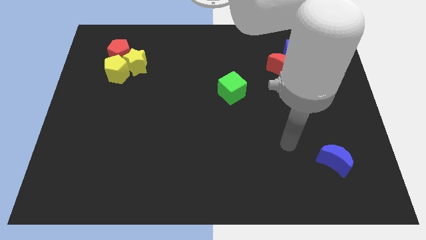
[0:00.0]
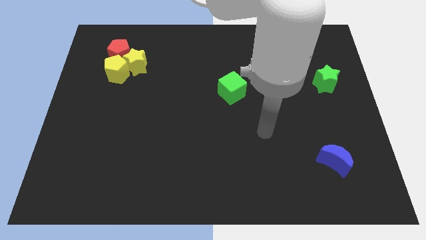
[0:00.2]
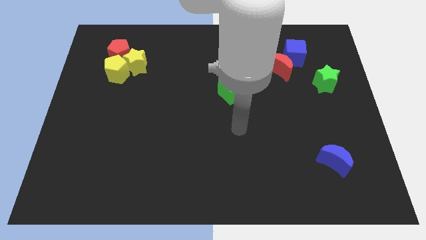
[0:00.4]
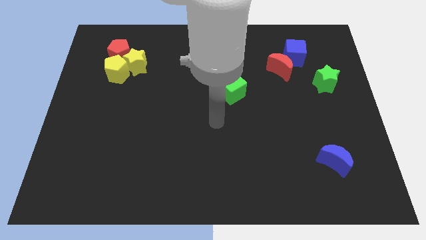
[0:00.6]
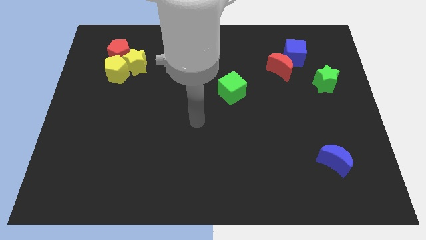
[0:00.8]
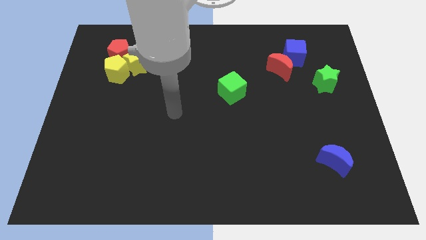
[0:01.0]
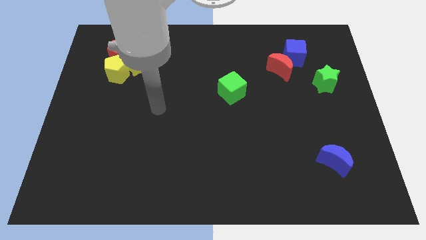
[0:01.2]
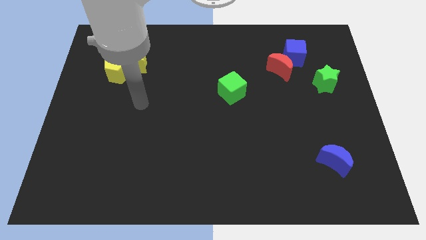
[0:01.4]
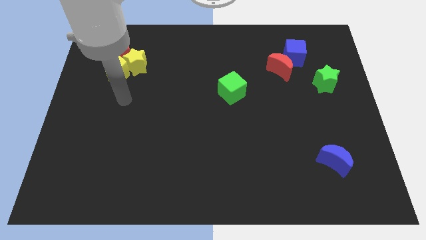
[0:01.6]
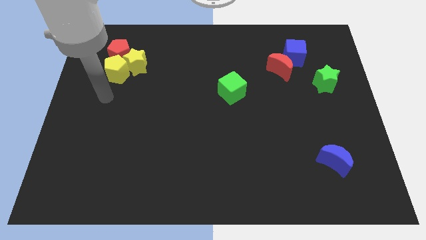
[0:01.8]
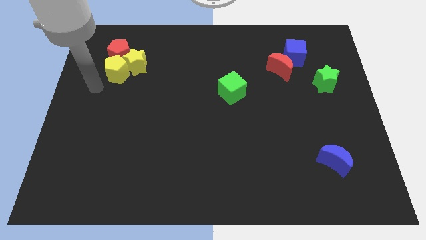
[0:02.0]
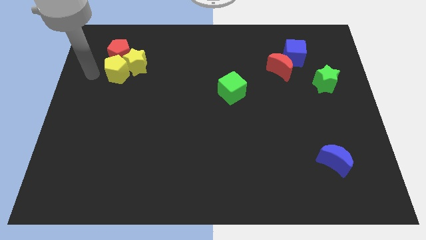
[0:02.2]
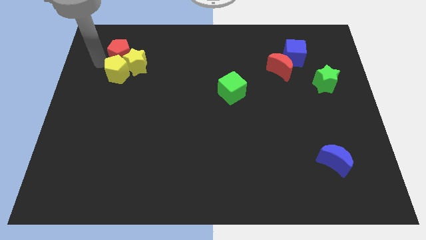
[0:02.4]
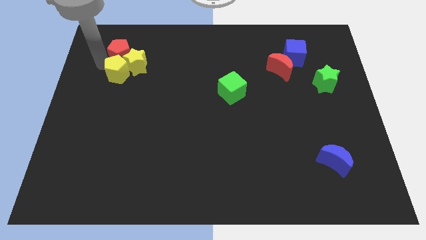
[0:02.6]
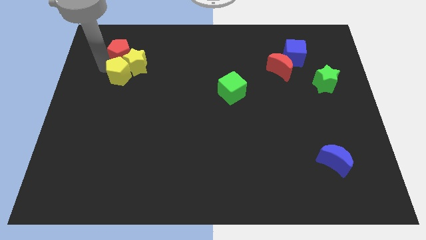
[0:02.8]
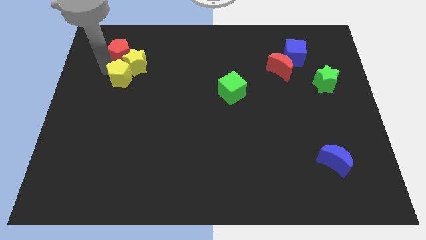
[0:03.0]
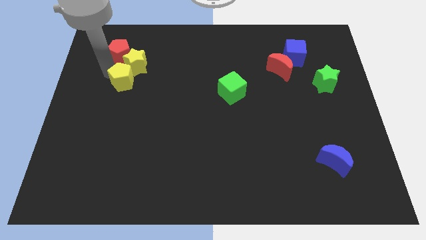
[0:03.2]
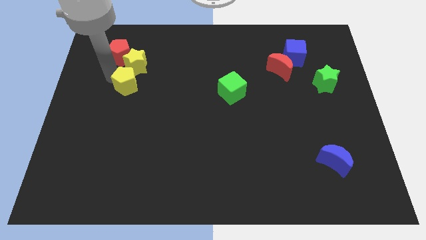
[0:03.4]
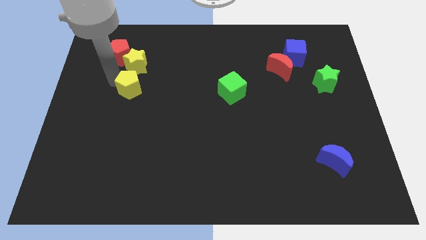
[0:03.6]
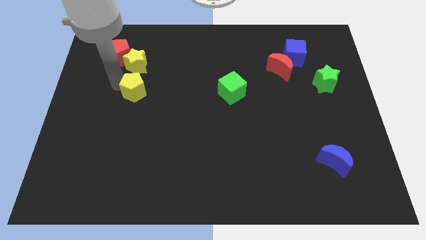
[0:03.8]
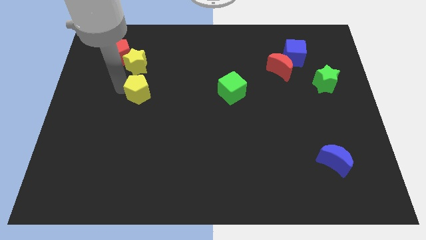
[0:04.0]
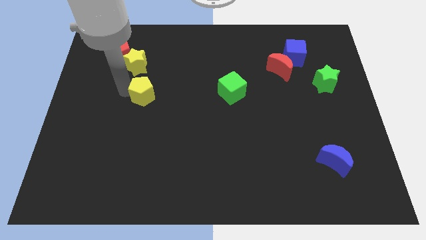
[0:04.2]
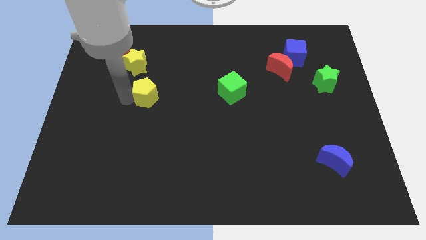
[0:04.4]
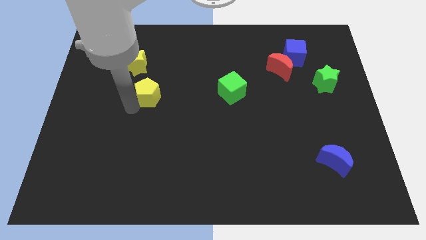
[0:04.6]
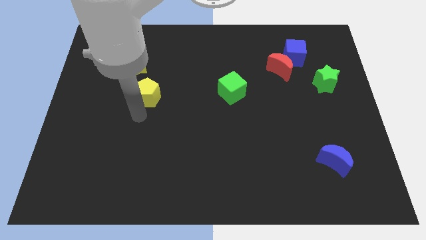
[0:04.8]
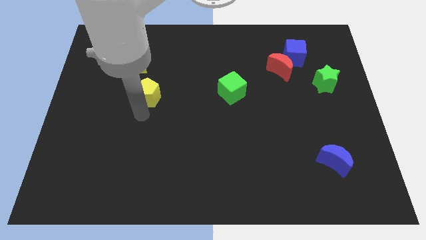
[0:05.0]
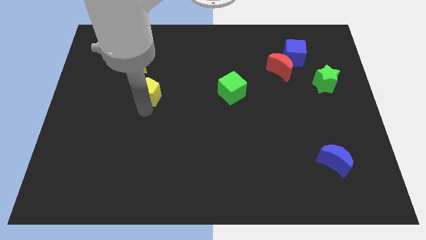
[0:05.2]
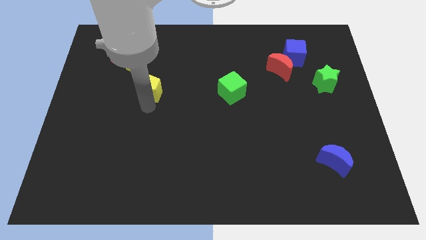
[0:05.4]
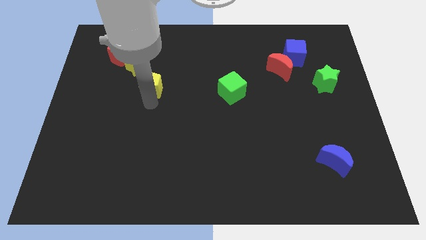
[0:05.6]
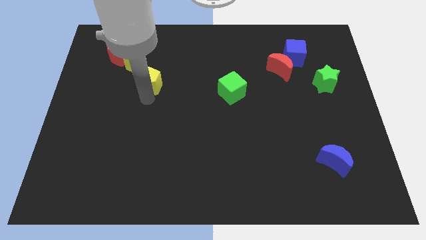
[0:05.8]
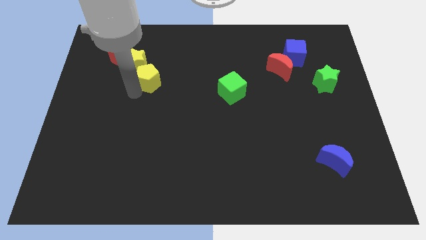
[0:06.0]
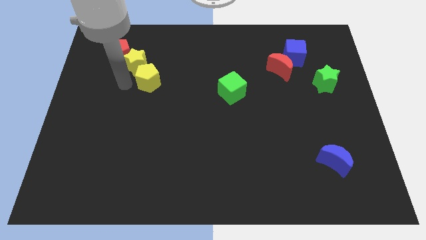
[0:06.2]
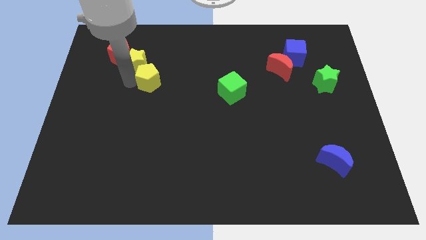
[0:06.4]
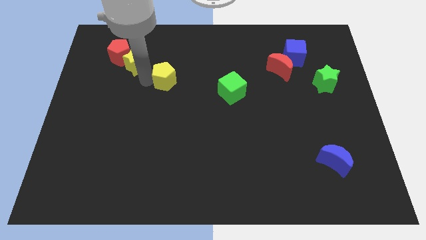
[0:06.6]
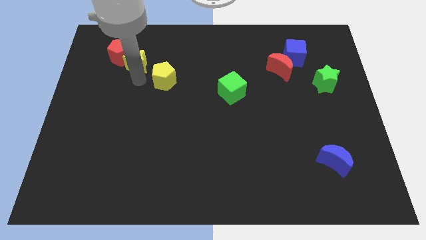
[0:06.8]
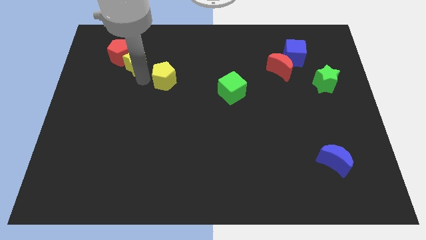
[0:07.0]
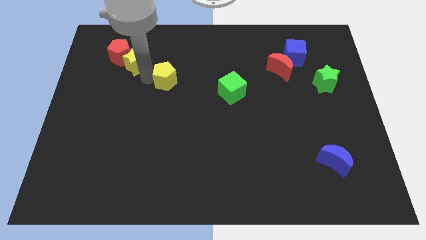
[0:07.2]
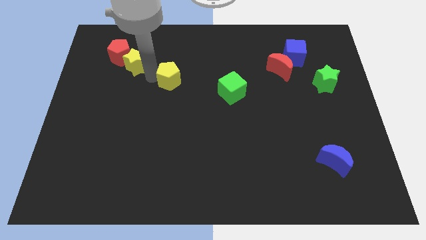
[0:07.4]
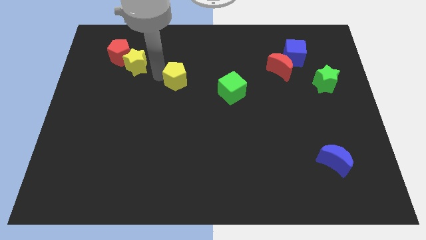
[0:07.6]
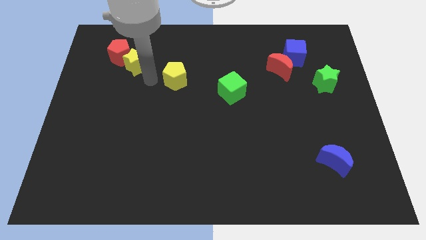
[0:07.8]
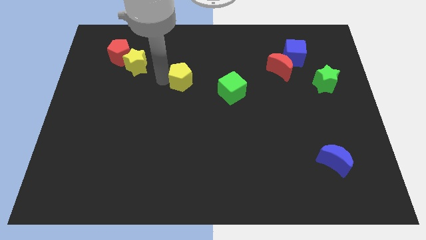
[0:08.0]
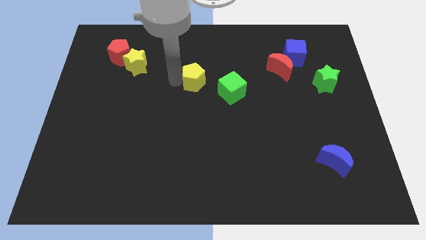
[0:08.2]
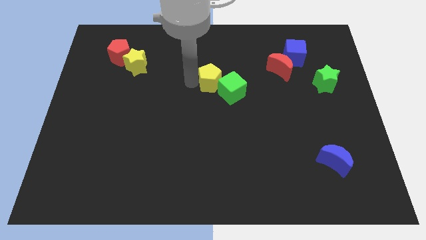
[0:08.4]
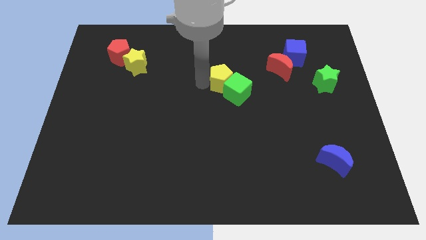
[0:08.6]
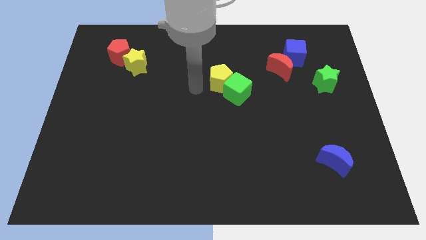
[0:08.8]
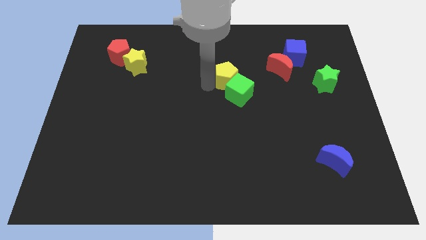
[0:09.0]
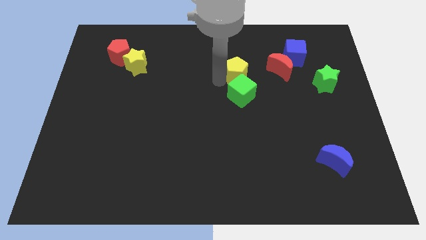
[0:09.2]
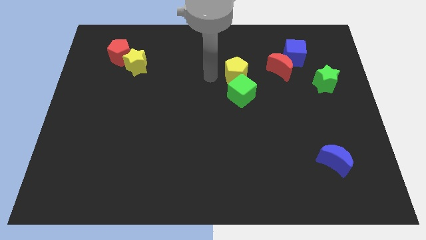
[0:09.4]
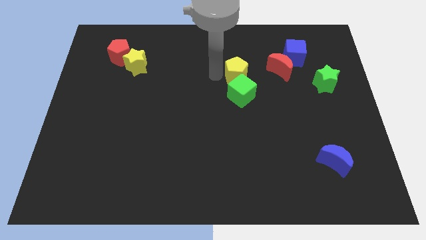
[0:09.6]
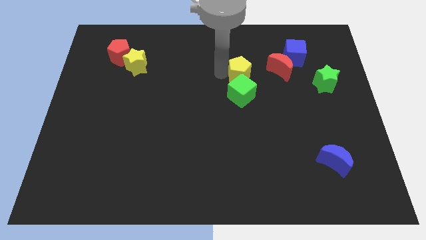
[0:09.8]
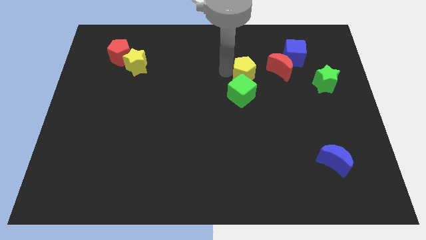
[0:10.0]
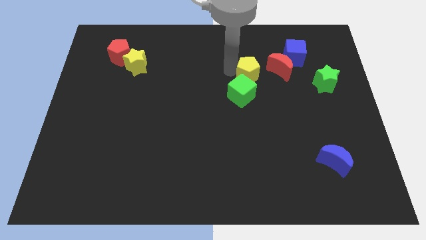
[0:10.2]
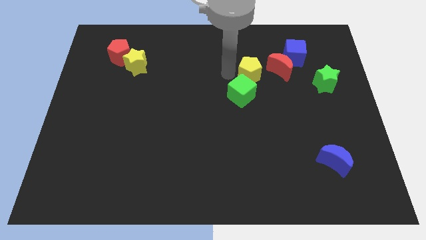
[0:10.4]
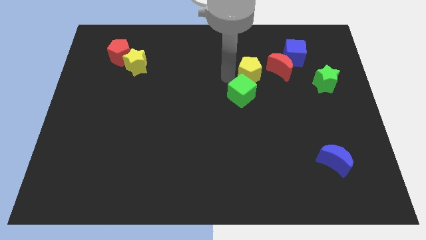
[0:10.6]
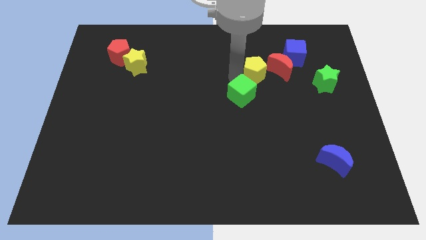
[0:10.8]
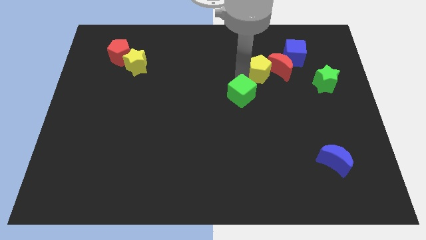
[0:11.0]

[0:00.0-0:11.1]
push the yellow pentagon to the red moon

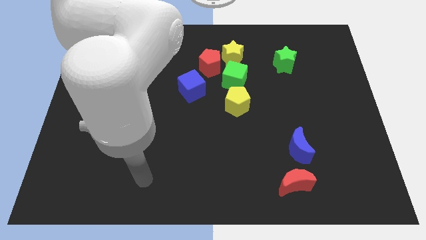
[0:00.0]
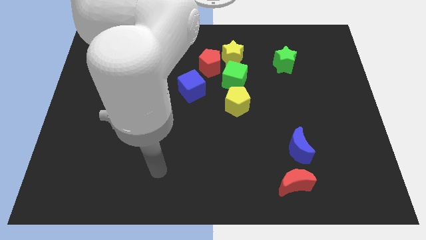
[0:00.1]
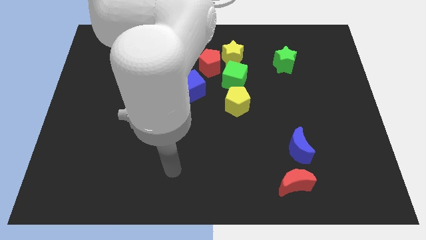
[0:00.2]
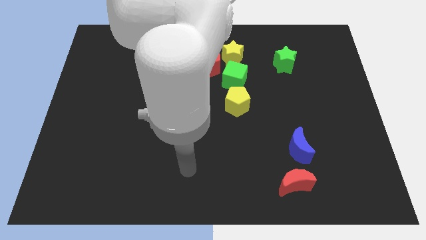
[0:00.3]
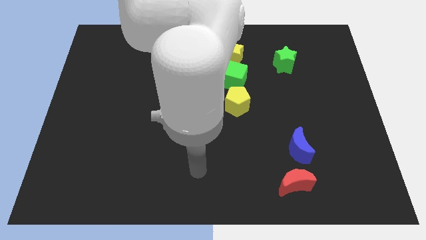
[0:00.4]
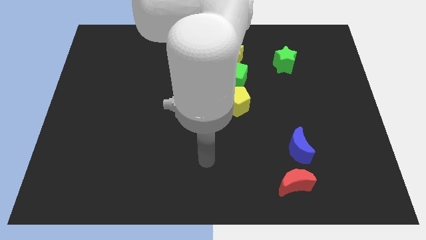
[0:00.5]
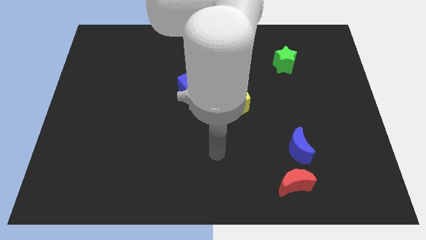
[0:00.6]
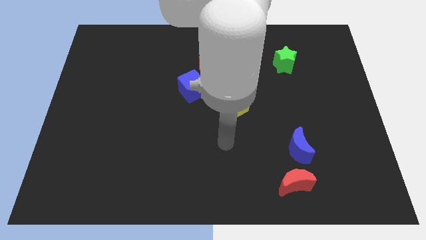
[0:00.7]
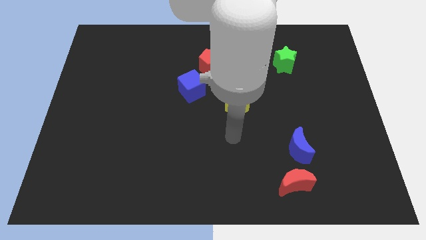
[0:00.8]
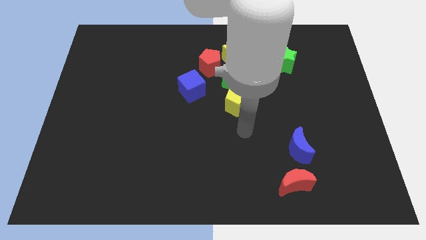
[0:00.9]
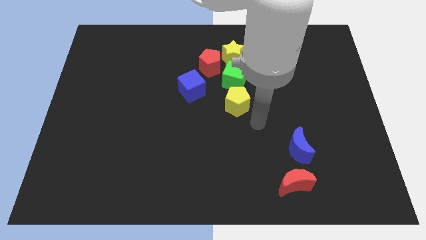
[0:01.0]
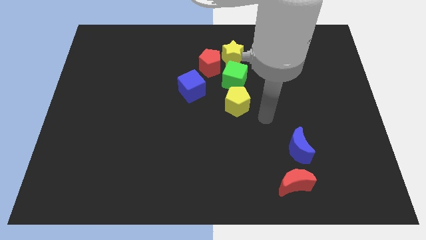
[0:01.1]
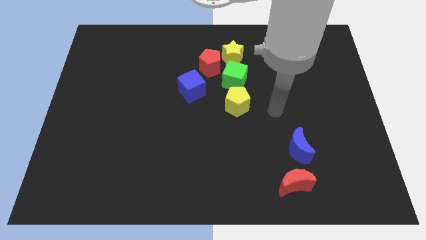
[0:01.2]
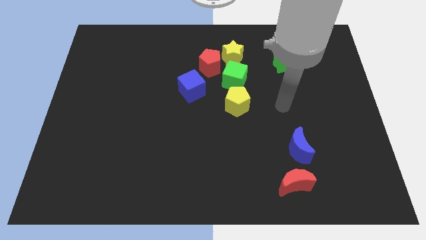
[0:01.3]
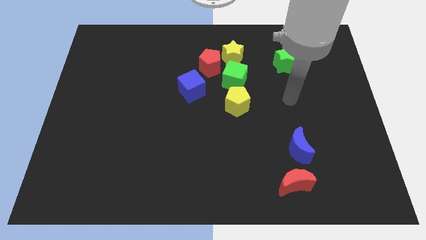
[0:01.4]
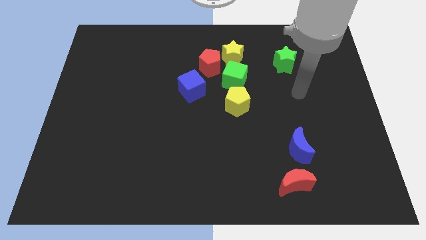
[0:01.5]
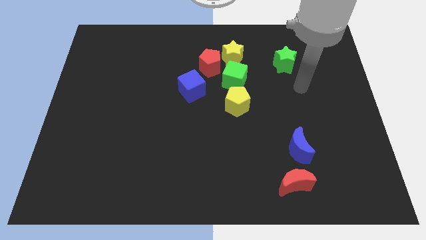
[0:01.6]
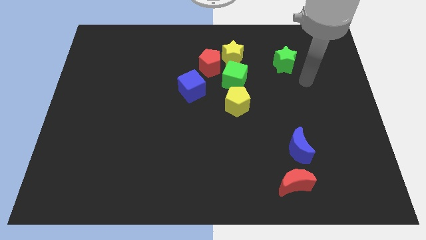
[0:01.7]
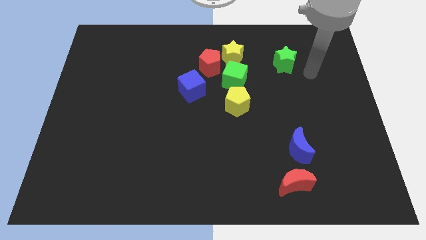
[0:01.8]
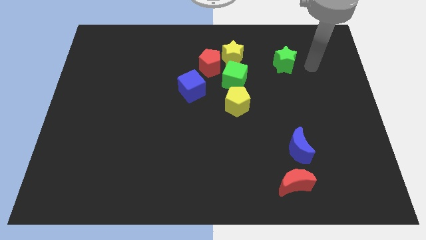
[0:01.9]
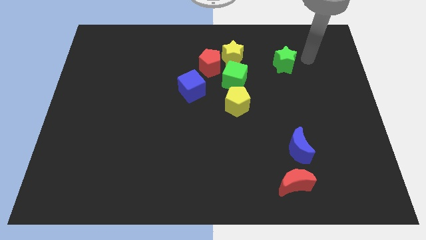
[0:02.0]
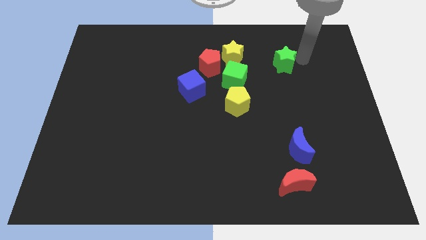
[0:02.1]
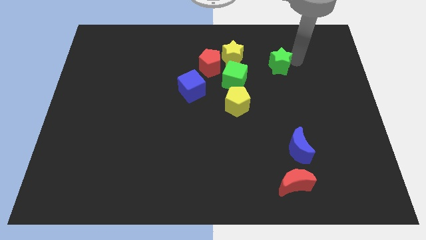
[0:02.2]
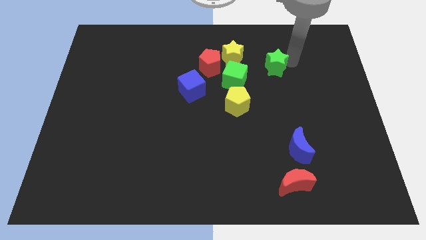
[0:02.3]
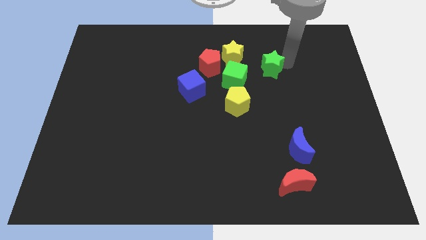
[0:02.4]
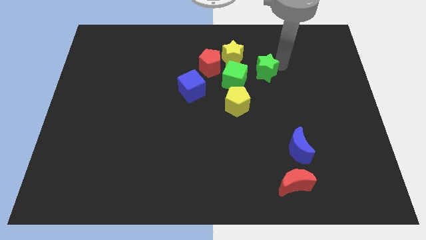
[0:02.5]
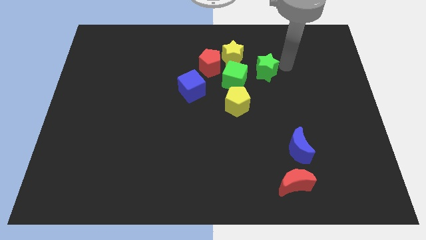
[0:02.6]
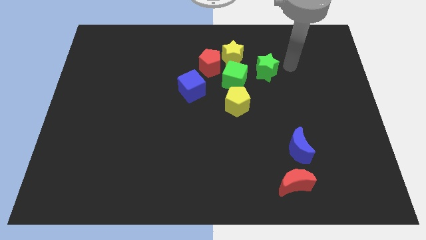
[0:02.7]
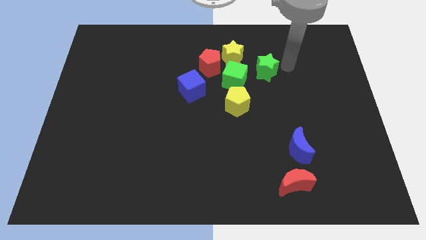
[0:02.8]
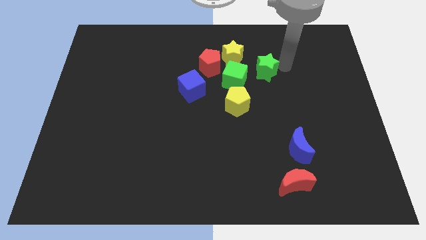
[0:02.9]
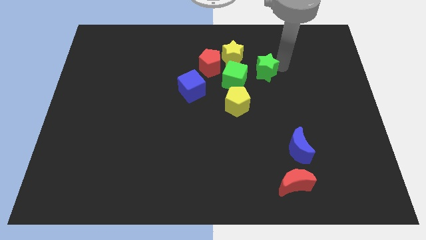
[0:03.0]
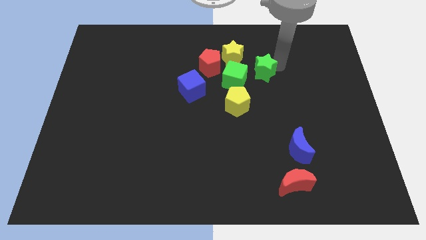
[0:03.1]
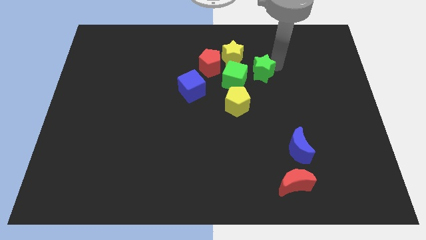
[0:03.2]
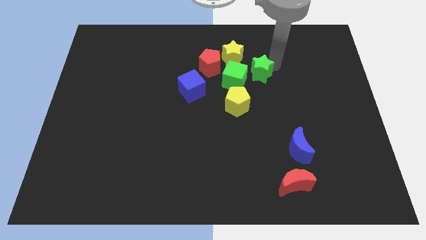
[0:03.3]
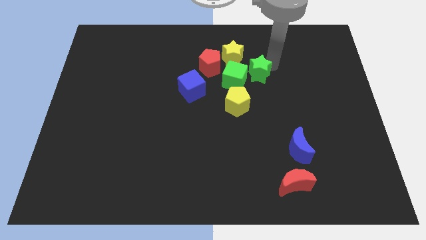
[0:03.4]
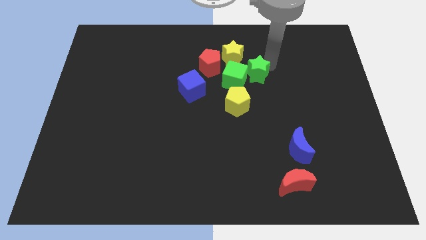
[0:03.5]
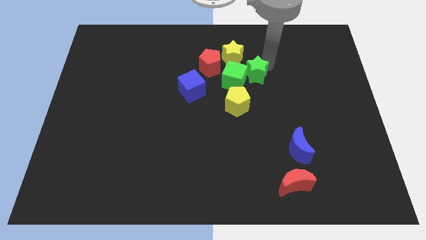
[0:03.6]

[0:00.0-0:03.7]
move the green star next to the green cube
